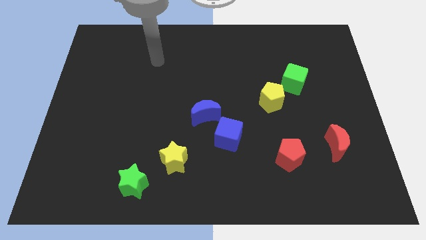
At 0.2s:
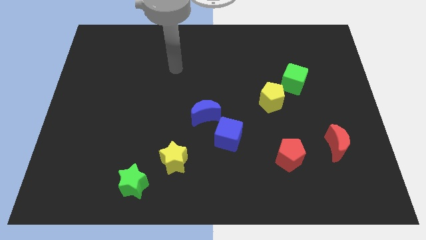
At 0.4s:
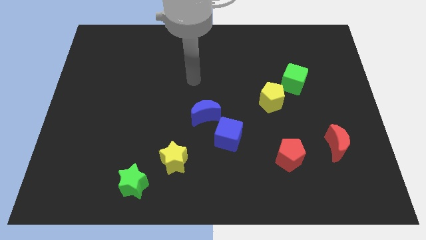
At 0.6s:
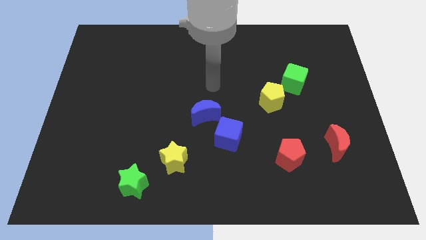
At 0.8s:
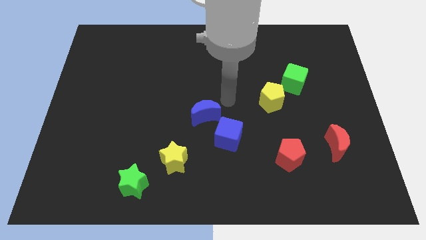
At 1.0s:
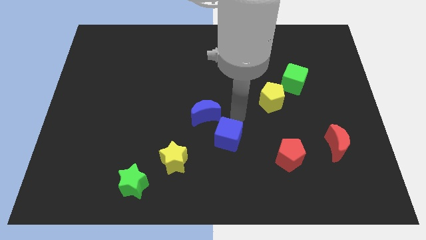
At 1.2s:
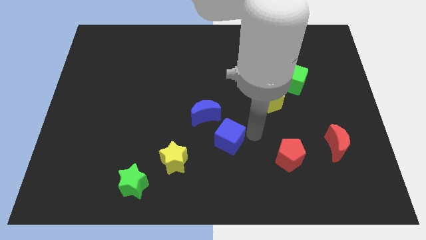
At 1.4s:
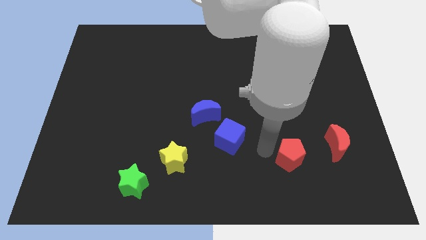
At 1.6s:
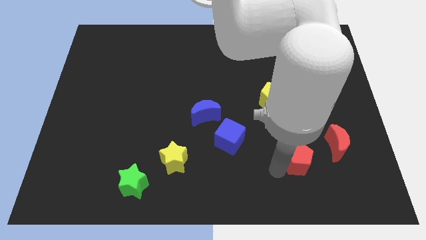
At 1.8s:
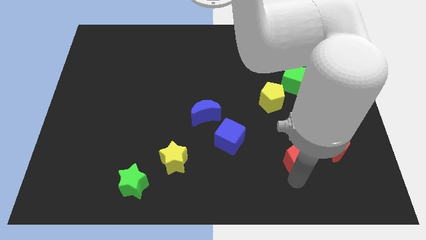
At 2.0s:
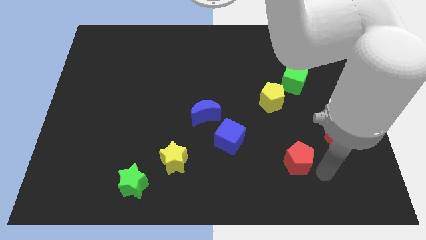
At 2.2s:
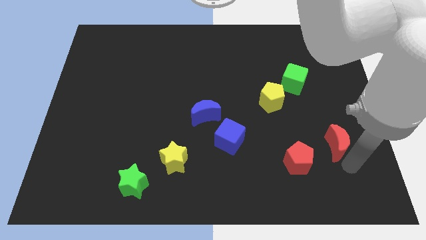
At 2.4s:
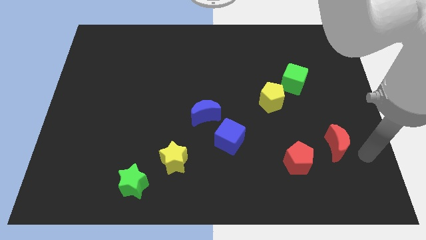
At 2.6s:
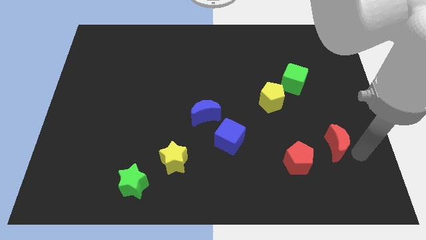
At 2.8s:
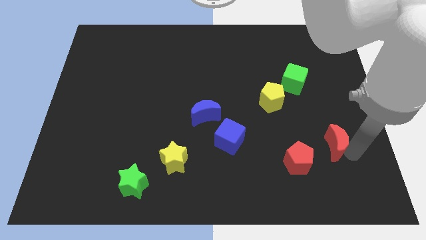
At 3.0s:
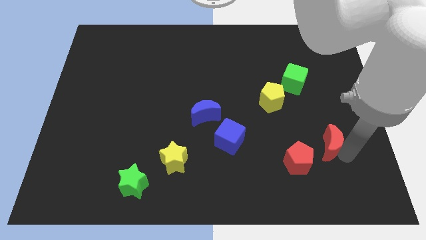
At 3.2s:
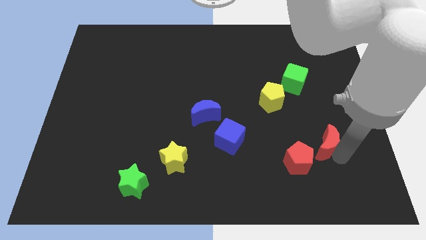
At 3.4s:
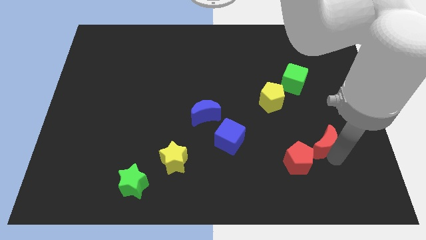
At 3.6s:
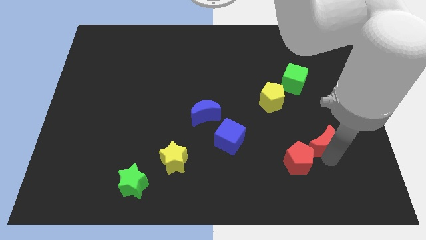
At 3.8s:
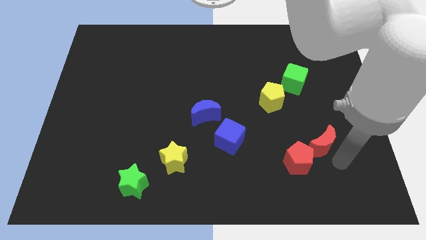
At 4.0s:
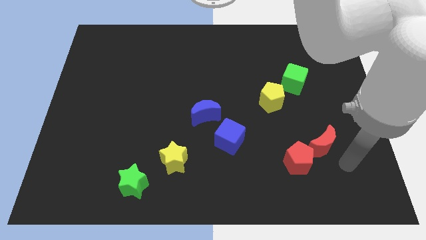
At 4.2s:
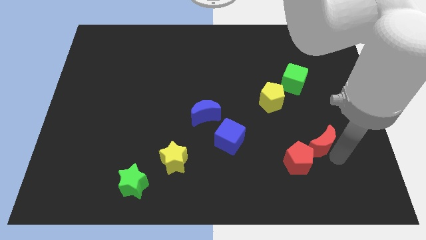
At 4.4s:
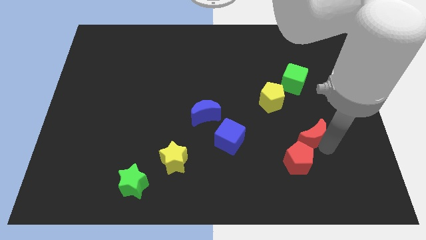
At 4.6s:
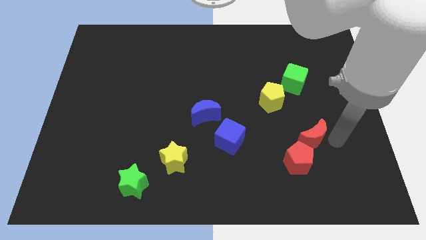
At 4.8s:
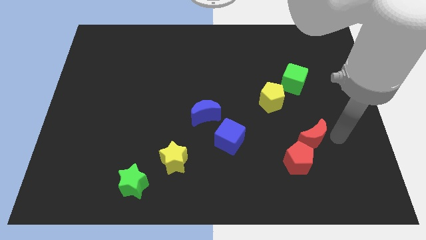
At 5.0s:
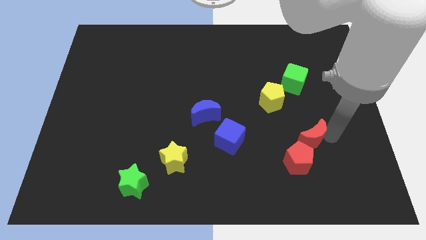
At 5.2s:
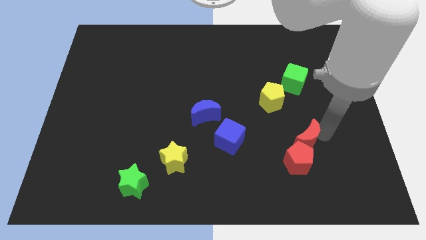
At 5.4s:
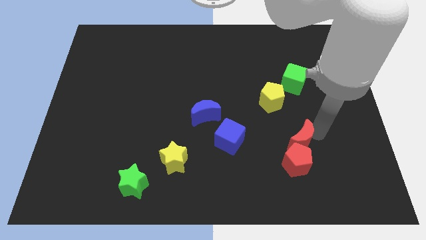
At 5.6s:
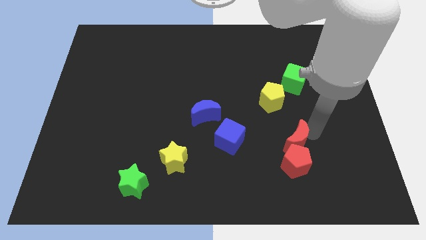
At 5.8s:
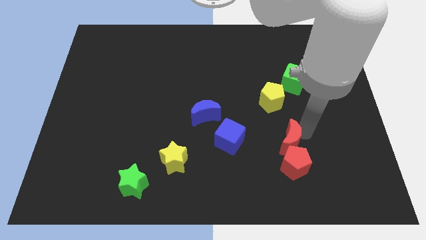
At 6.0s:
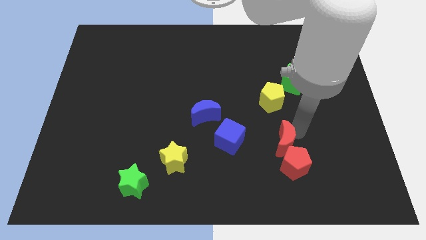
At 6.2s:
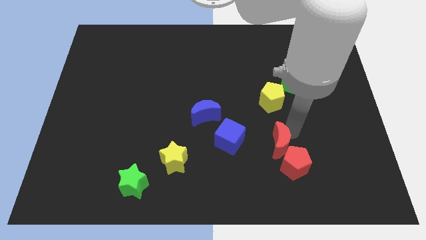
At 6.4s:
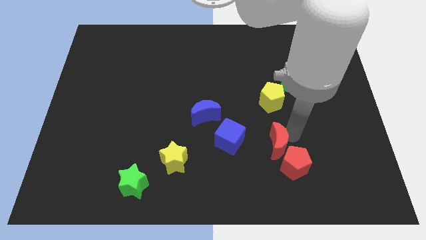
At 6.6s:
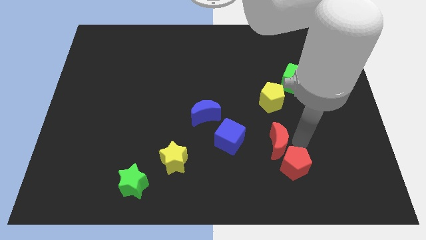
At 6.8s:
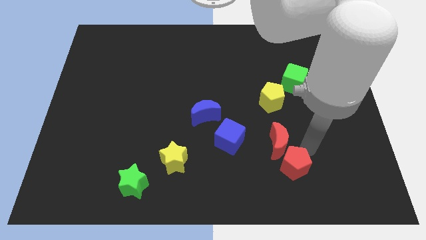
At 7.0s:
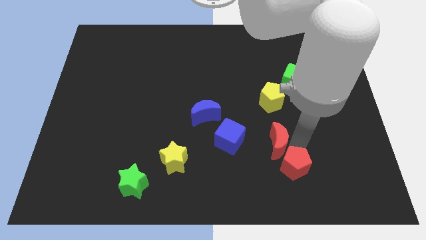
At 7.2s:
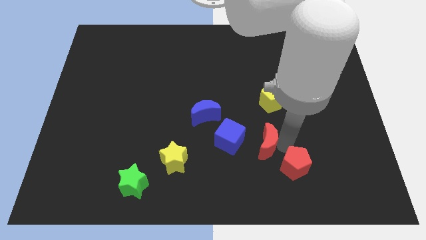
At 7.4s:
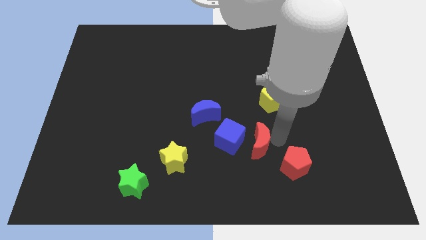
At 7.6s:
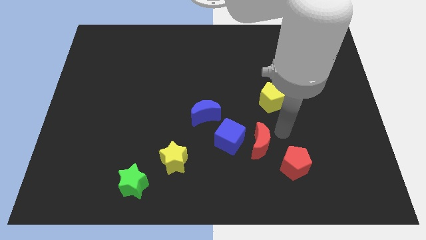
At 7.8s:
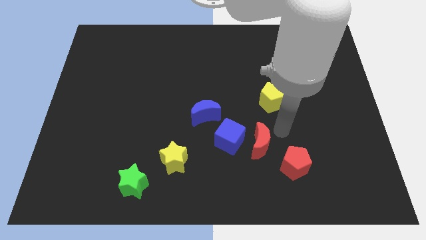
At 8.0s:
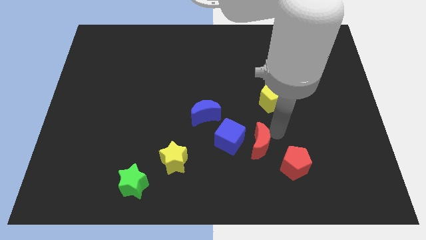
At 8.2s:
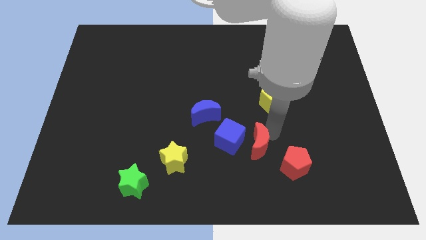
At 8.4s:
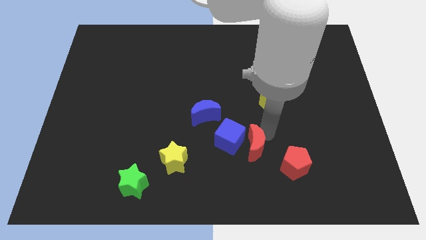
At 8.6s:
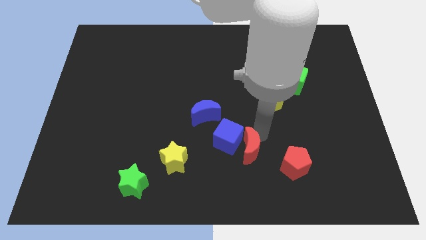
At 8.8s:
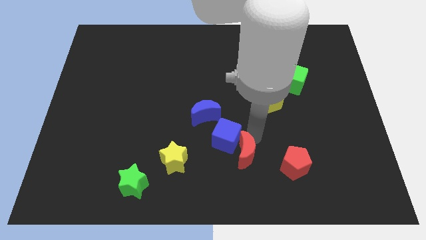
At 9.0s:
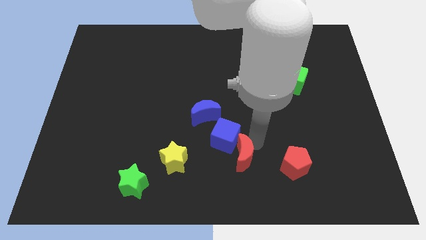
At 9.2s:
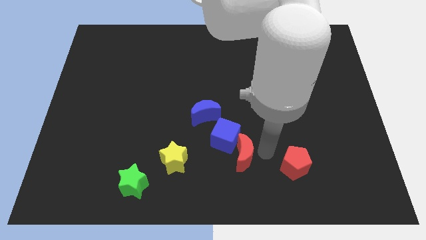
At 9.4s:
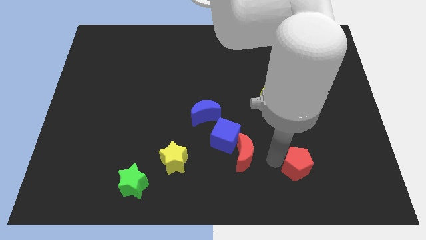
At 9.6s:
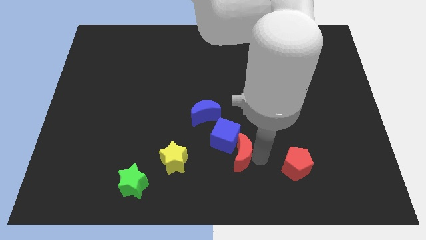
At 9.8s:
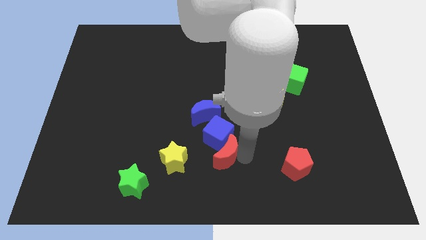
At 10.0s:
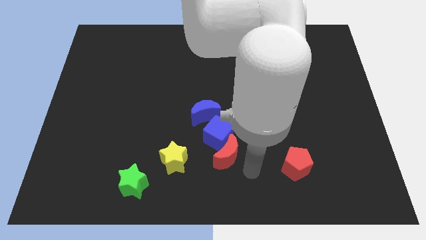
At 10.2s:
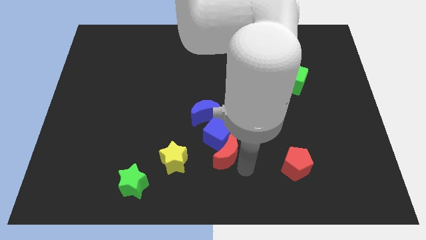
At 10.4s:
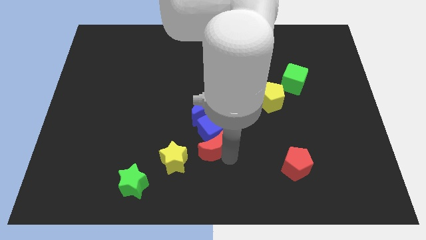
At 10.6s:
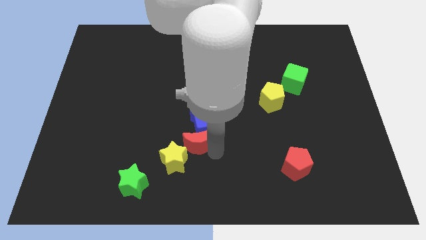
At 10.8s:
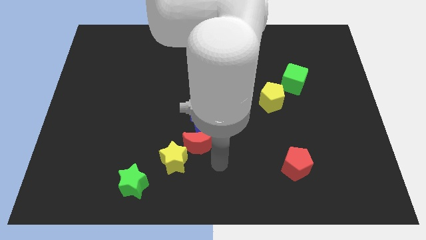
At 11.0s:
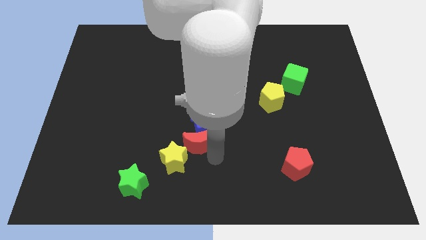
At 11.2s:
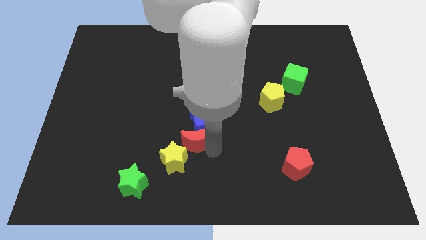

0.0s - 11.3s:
put the red moon to the top of the yellow star

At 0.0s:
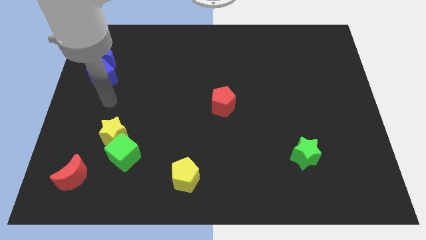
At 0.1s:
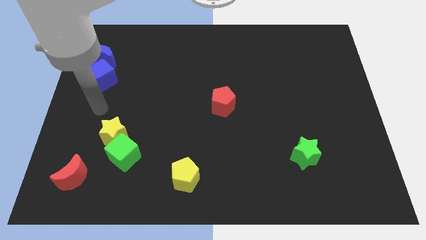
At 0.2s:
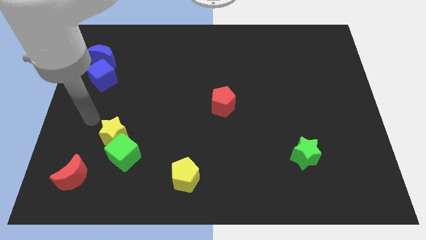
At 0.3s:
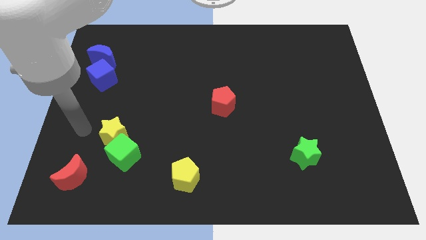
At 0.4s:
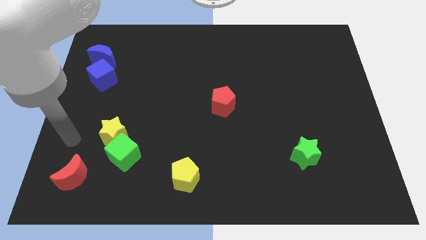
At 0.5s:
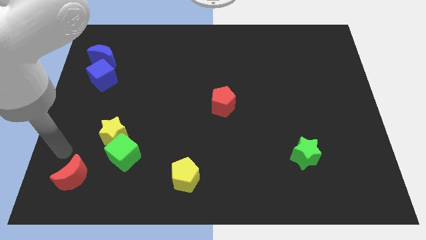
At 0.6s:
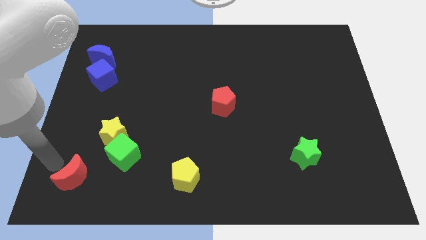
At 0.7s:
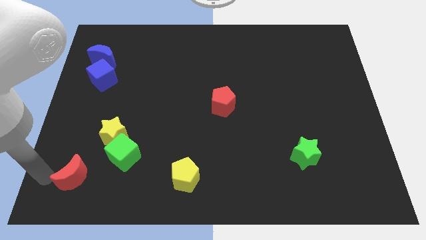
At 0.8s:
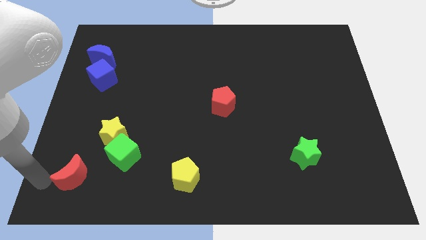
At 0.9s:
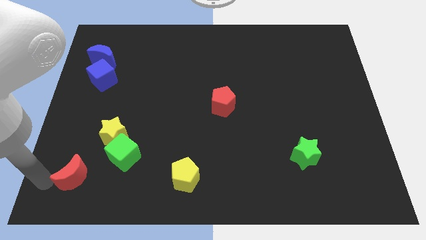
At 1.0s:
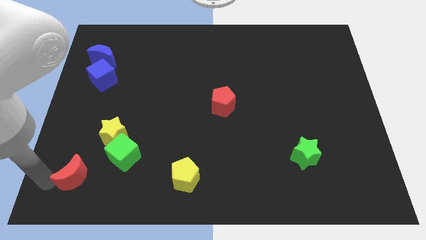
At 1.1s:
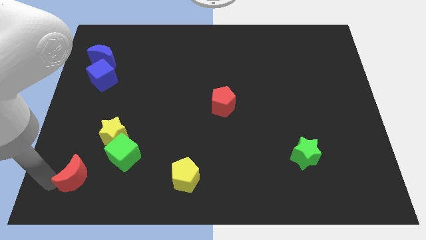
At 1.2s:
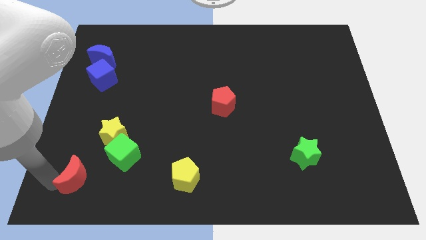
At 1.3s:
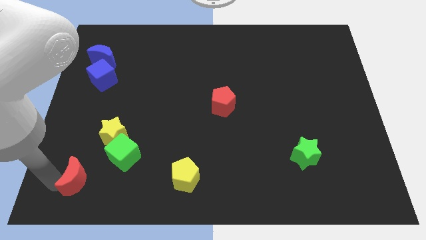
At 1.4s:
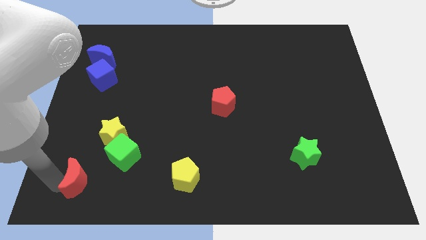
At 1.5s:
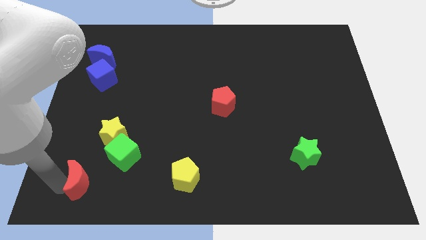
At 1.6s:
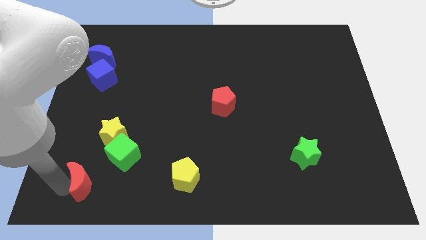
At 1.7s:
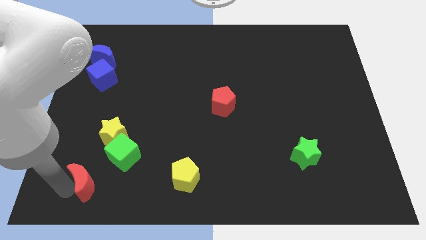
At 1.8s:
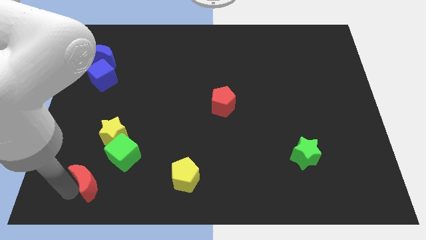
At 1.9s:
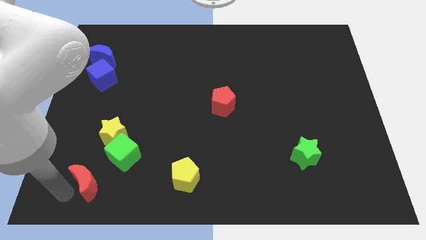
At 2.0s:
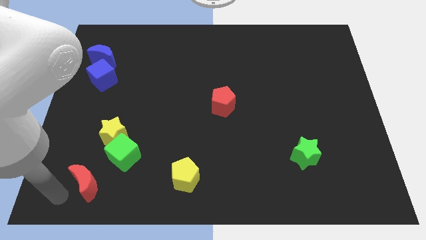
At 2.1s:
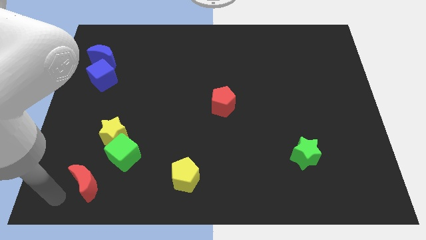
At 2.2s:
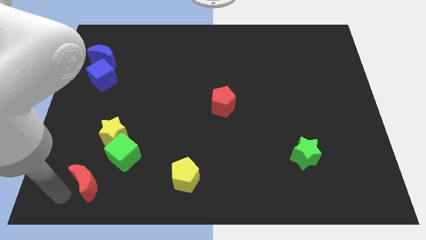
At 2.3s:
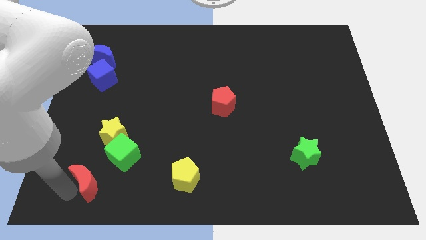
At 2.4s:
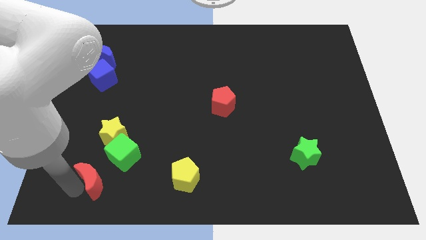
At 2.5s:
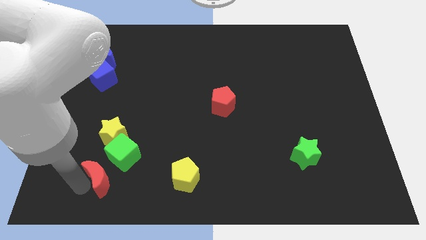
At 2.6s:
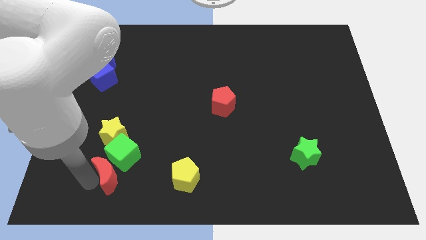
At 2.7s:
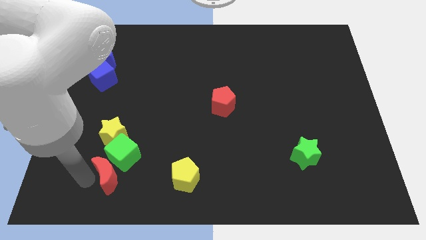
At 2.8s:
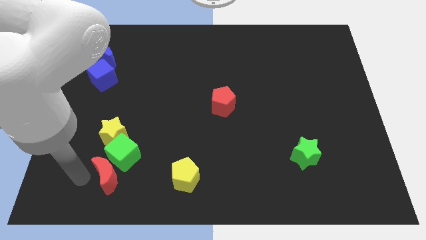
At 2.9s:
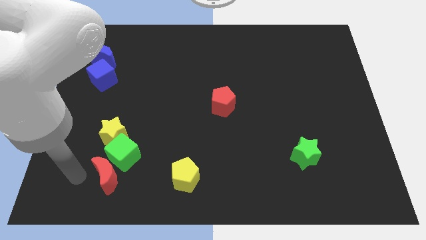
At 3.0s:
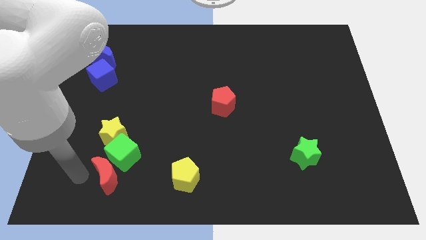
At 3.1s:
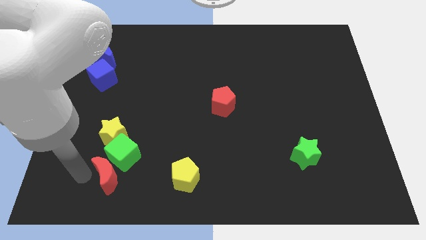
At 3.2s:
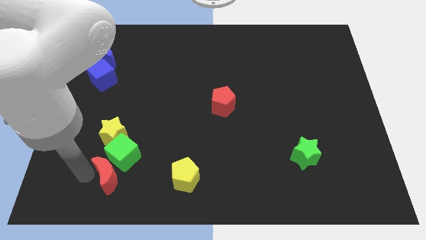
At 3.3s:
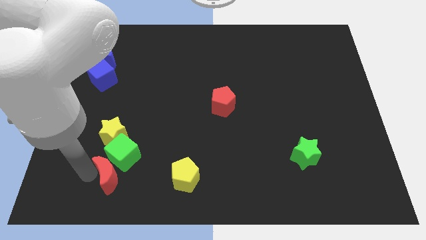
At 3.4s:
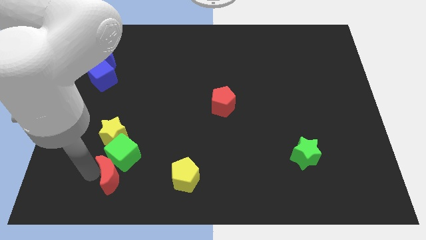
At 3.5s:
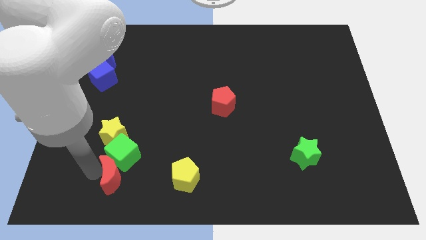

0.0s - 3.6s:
slide the red moon to the bottom right of the green cube
